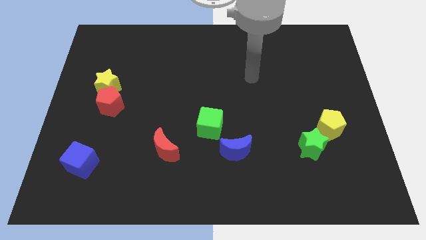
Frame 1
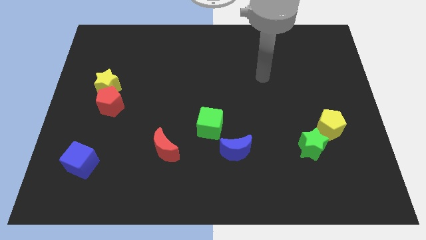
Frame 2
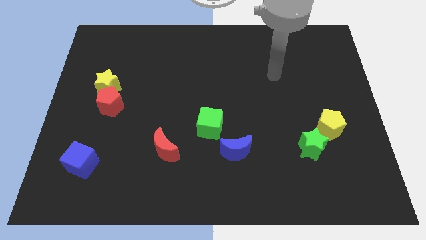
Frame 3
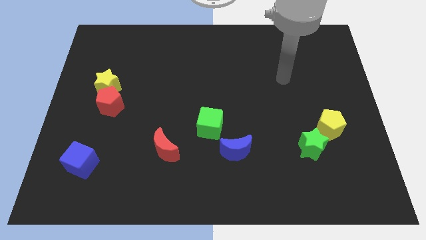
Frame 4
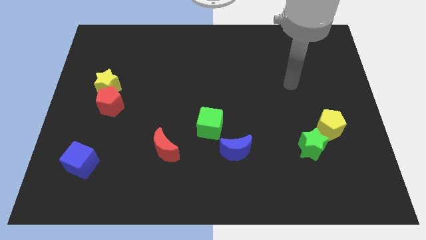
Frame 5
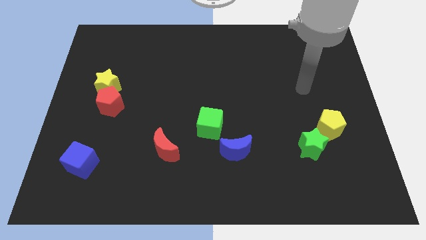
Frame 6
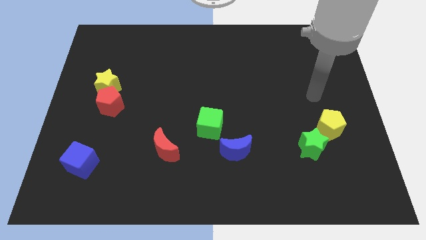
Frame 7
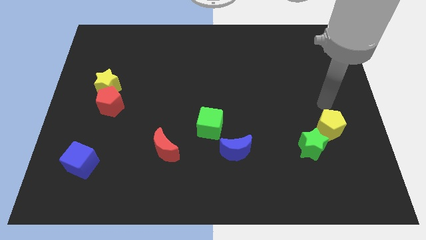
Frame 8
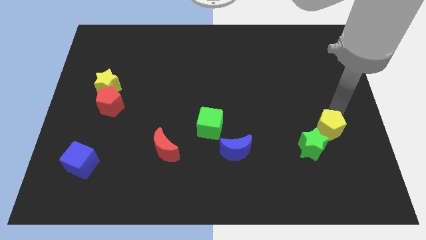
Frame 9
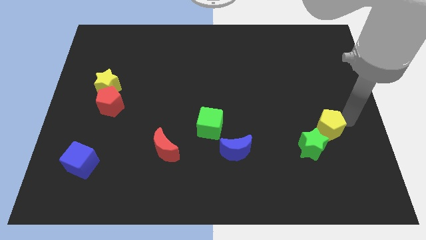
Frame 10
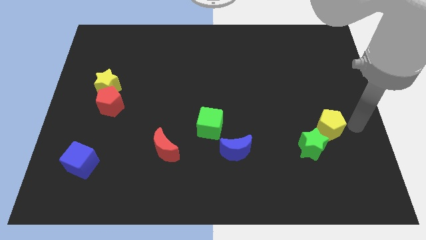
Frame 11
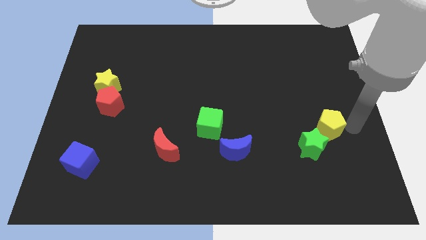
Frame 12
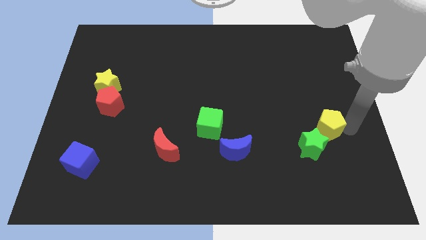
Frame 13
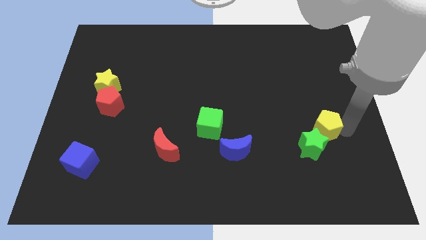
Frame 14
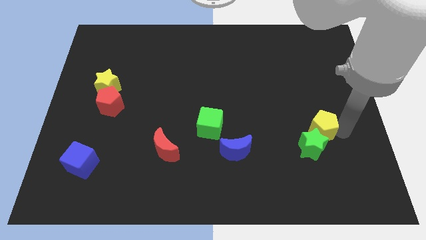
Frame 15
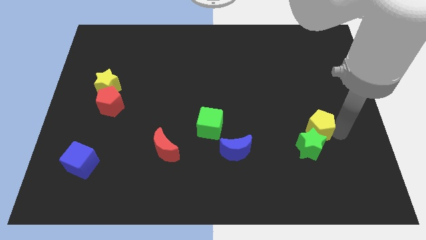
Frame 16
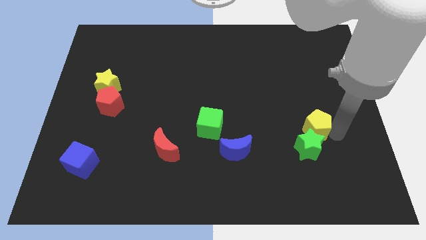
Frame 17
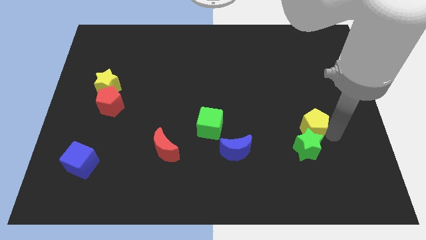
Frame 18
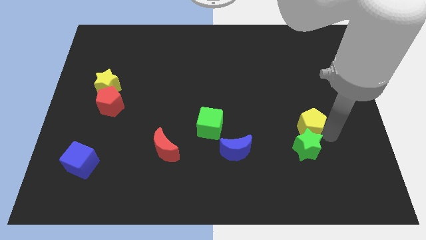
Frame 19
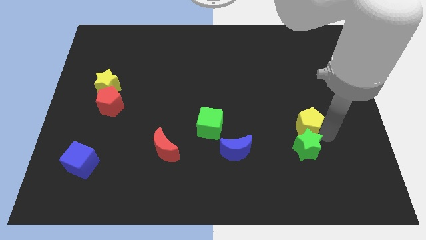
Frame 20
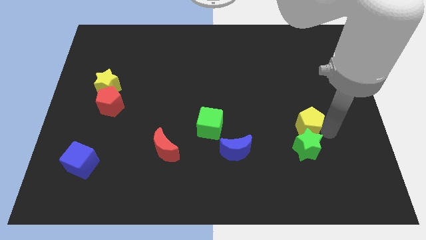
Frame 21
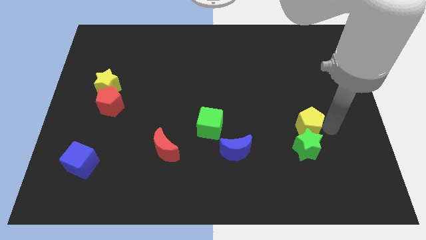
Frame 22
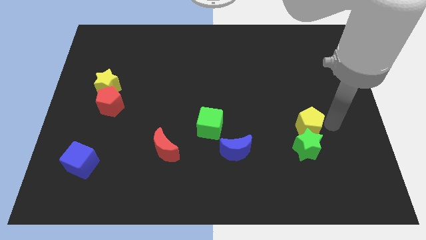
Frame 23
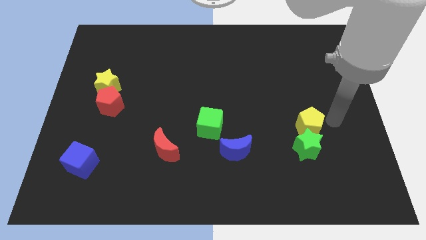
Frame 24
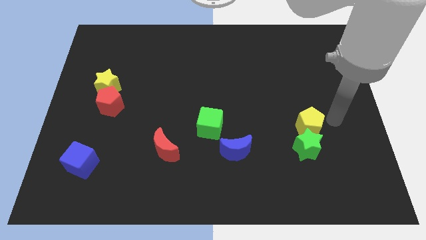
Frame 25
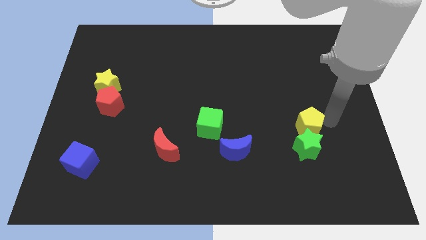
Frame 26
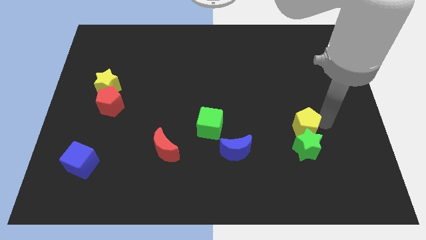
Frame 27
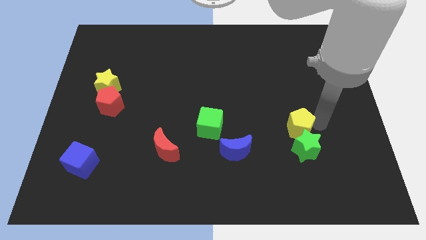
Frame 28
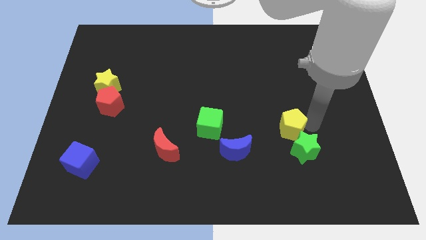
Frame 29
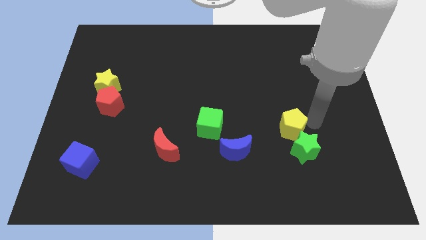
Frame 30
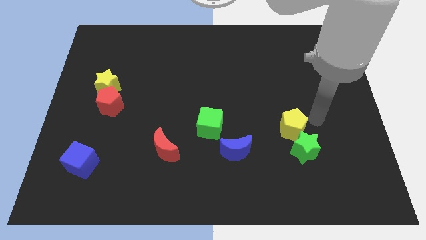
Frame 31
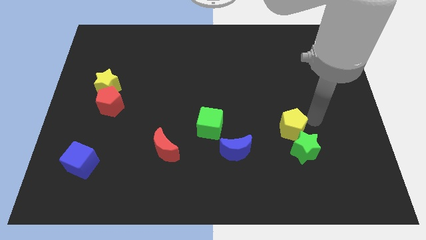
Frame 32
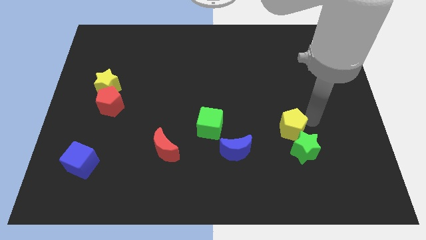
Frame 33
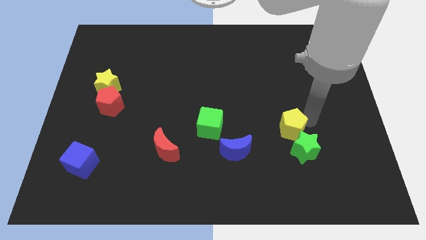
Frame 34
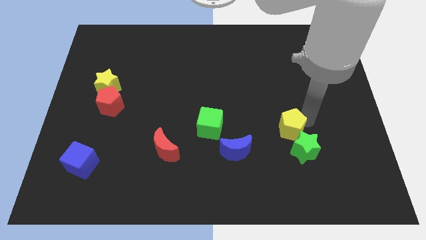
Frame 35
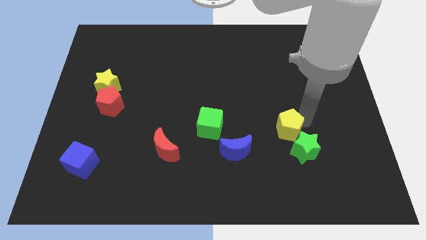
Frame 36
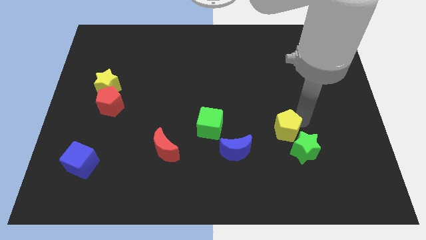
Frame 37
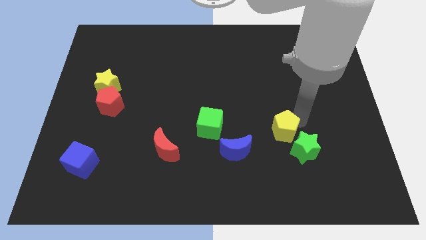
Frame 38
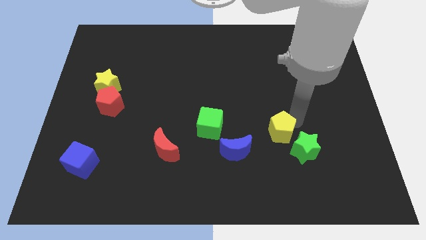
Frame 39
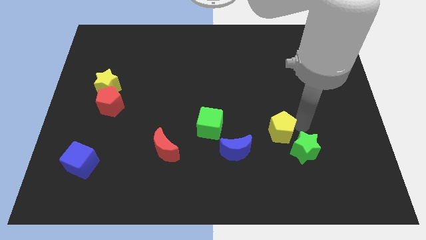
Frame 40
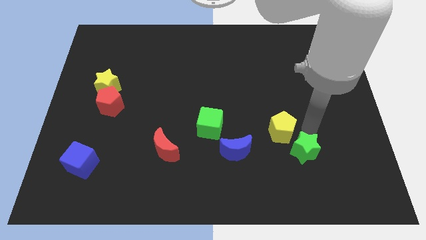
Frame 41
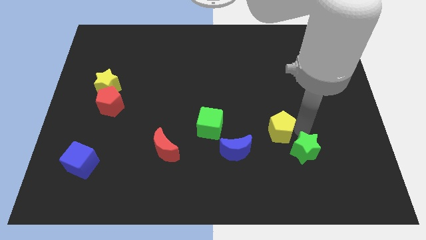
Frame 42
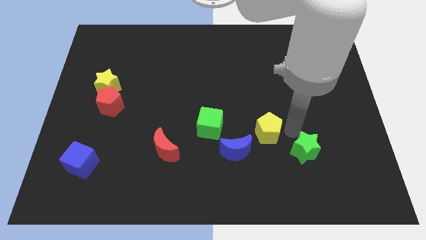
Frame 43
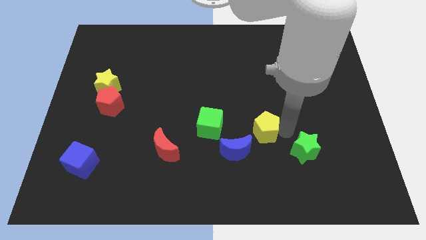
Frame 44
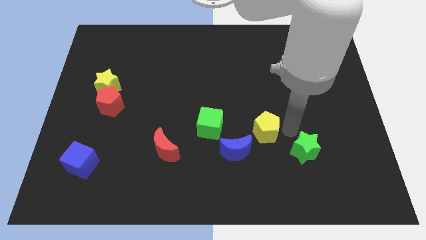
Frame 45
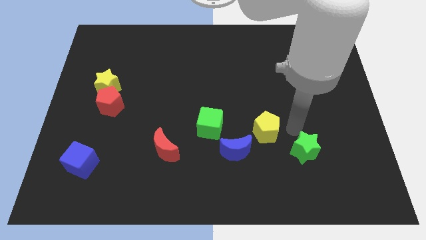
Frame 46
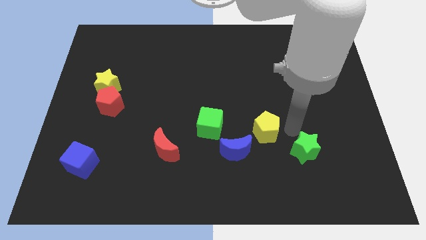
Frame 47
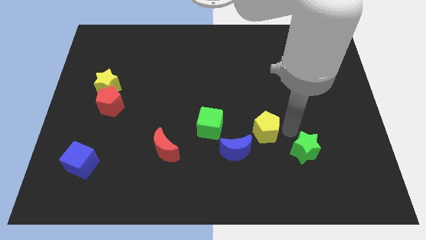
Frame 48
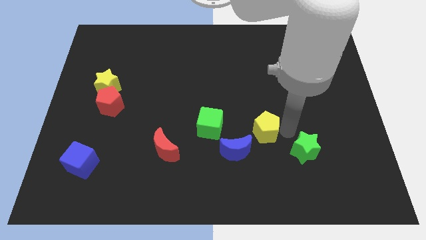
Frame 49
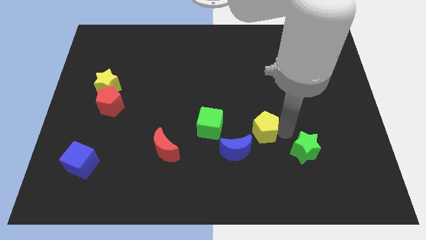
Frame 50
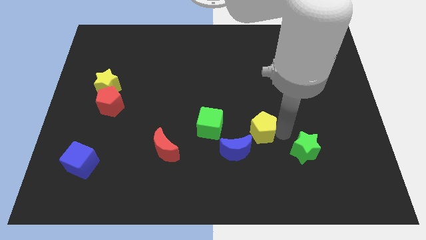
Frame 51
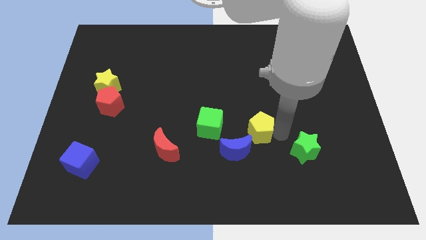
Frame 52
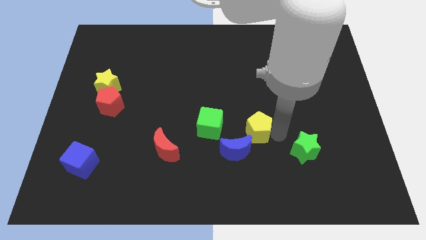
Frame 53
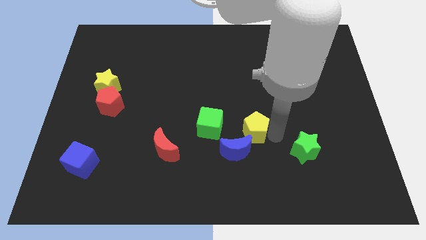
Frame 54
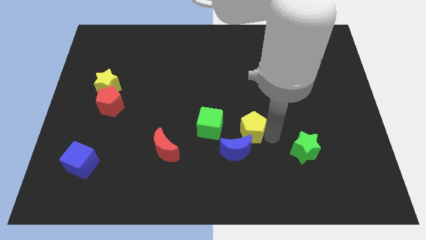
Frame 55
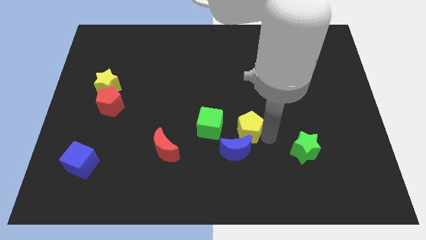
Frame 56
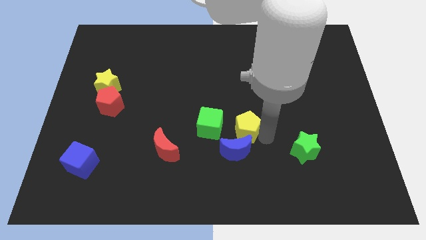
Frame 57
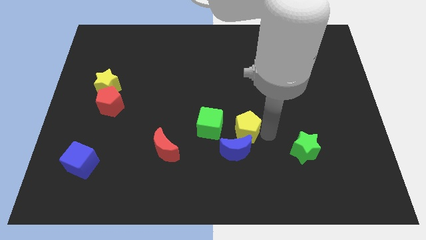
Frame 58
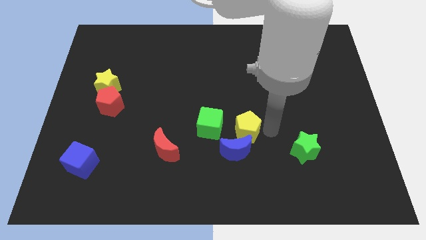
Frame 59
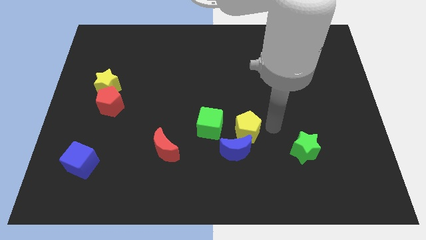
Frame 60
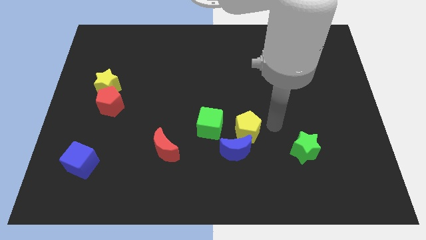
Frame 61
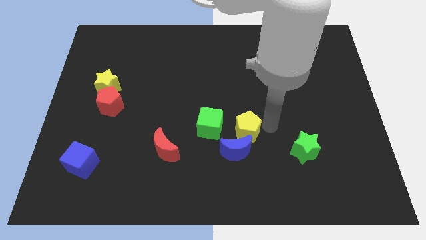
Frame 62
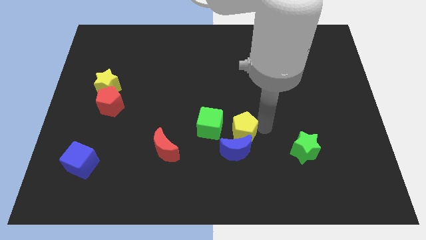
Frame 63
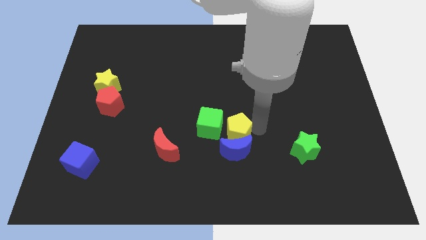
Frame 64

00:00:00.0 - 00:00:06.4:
slide the yellow pentagon to the left

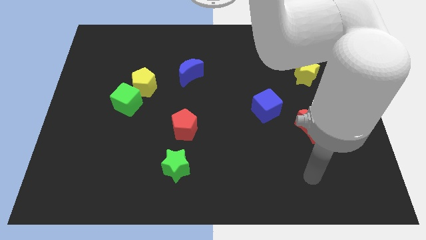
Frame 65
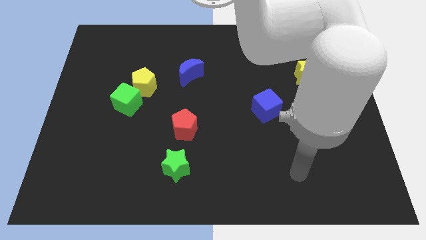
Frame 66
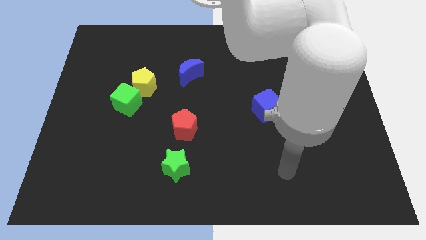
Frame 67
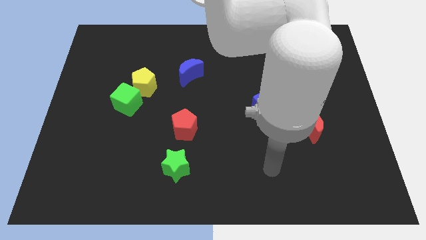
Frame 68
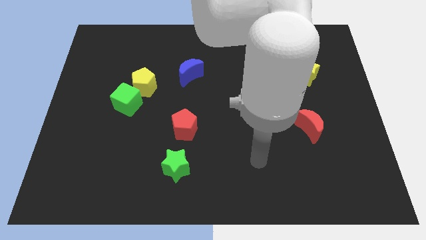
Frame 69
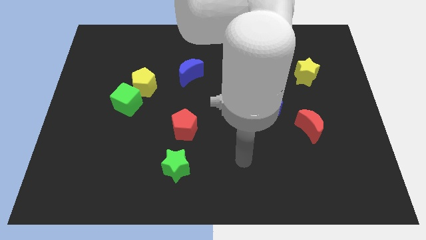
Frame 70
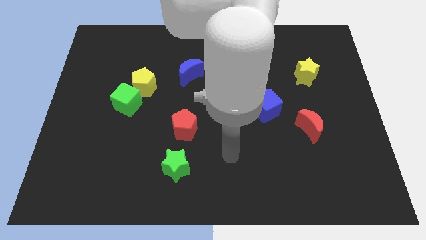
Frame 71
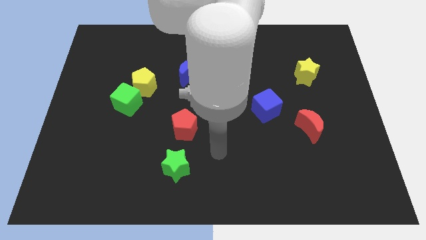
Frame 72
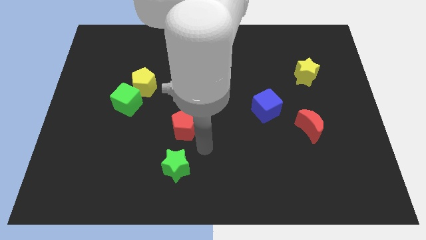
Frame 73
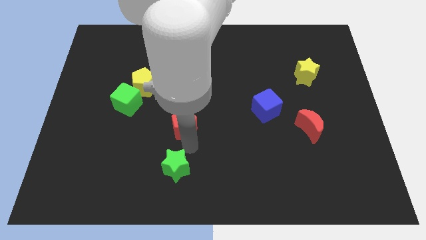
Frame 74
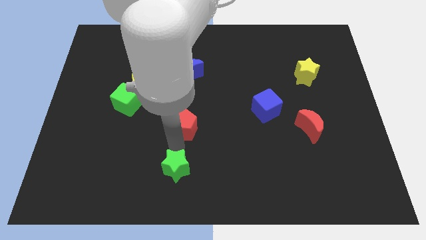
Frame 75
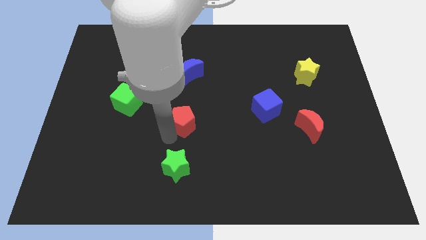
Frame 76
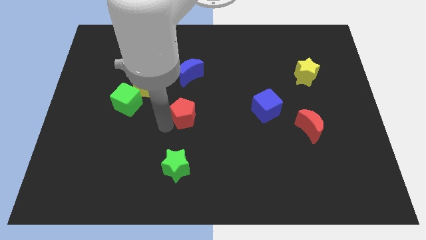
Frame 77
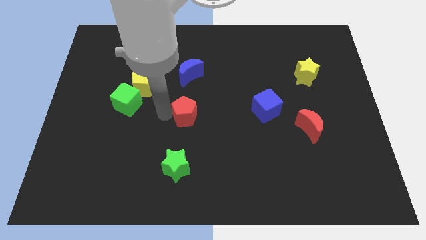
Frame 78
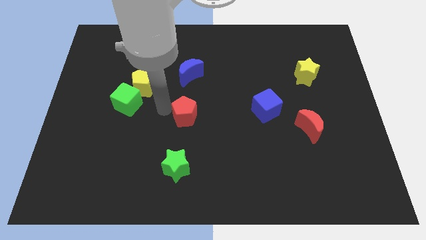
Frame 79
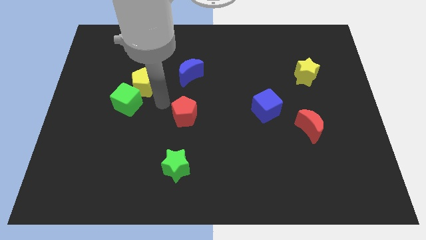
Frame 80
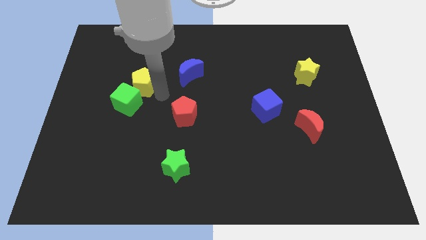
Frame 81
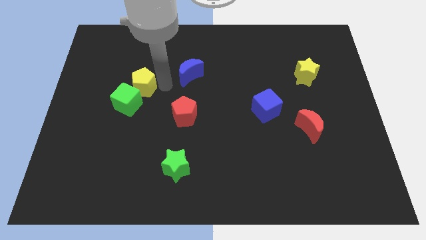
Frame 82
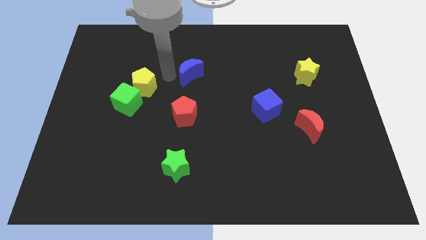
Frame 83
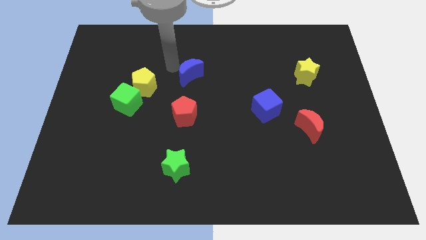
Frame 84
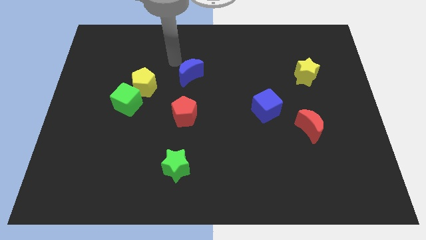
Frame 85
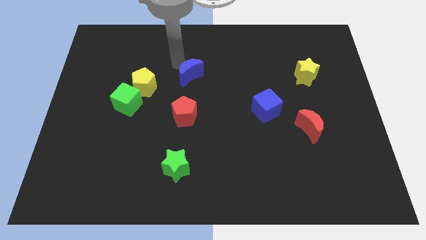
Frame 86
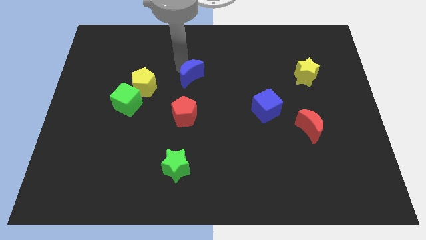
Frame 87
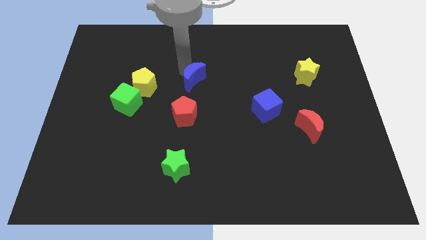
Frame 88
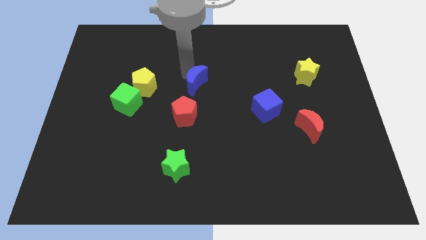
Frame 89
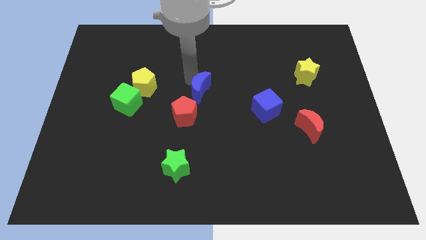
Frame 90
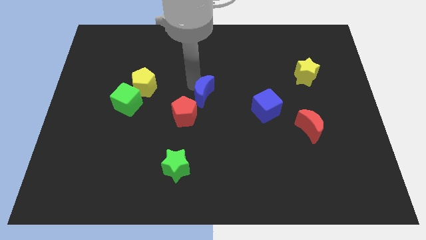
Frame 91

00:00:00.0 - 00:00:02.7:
slightly slide the blue moon down and to the right diagonally
